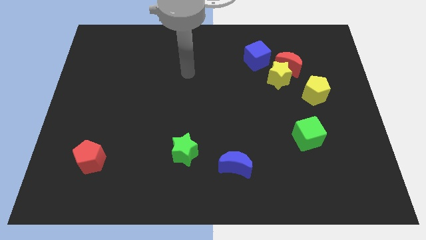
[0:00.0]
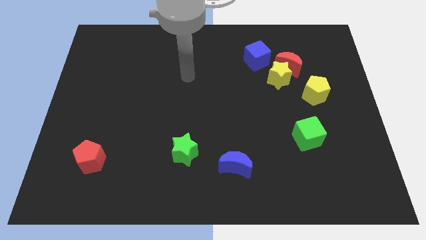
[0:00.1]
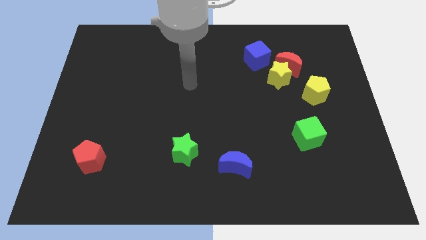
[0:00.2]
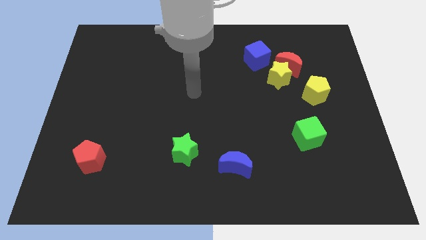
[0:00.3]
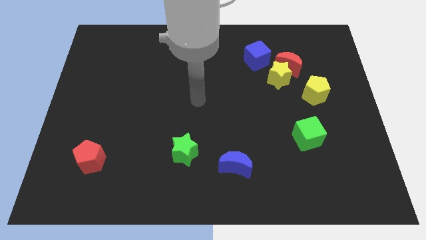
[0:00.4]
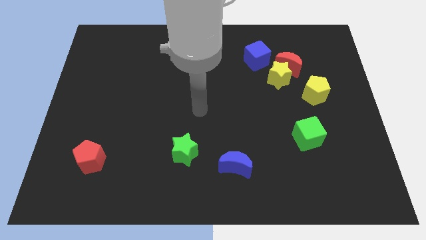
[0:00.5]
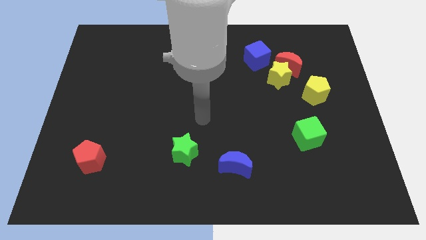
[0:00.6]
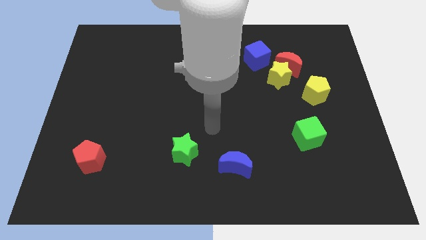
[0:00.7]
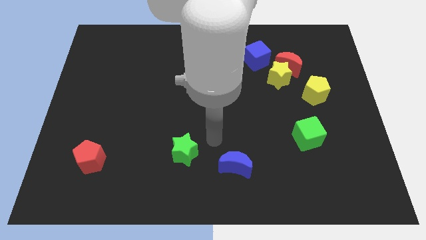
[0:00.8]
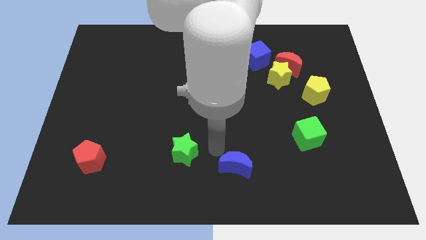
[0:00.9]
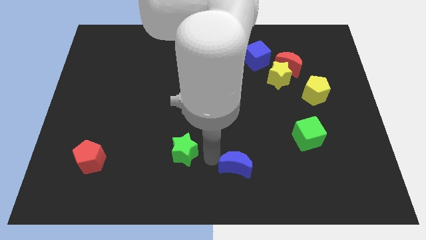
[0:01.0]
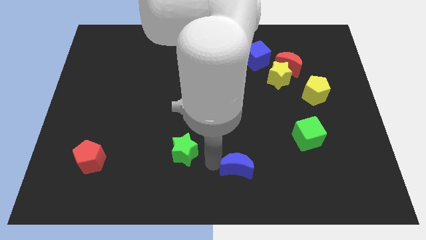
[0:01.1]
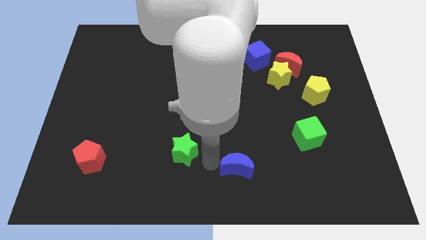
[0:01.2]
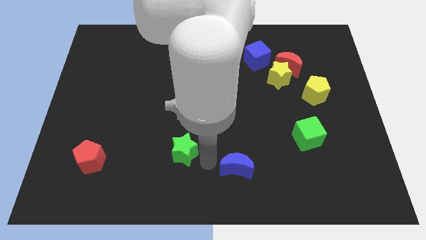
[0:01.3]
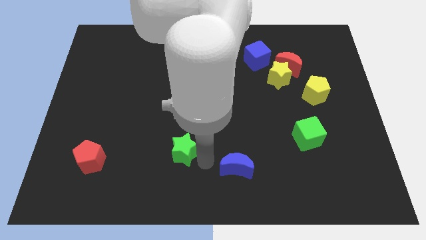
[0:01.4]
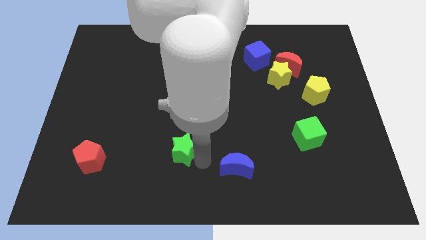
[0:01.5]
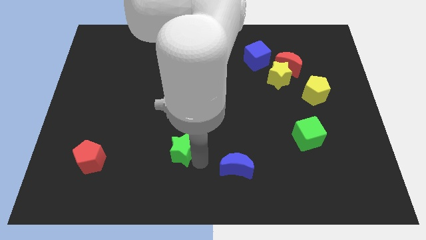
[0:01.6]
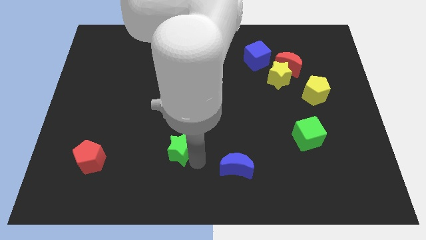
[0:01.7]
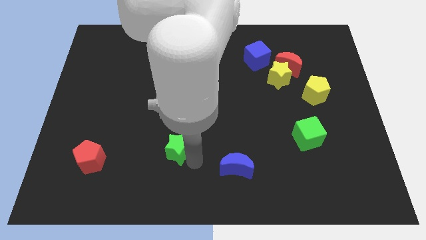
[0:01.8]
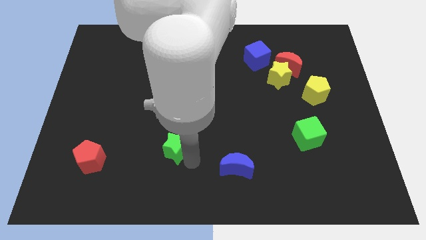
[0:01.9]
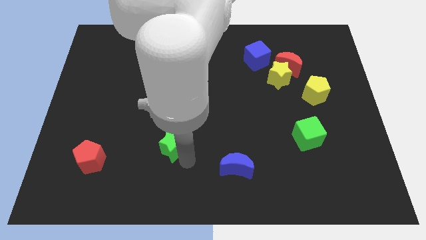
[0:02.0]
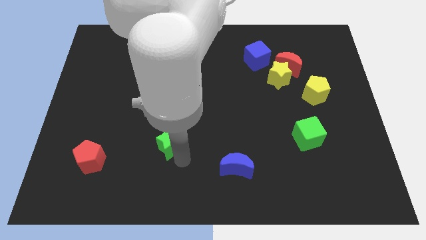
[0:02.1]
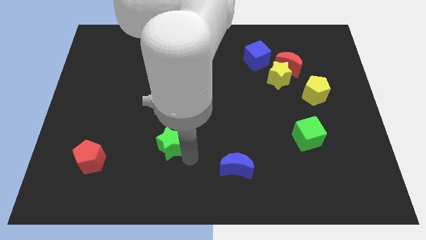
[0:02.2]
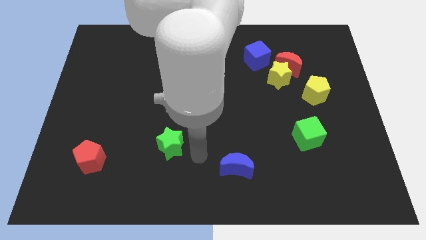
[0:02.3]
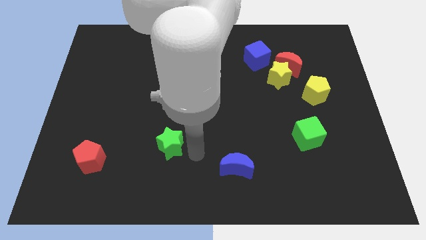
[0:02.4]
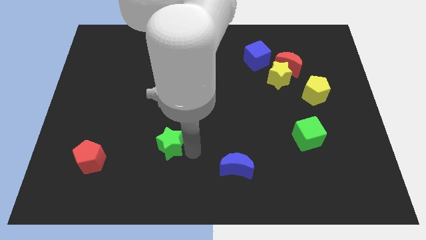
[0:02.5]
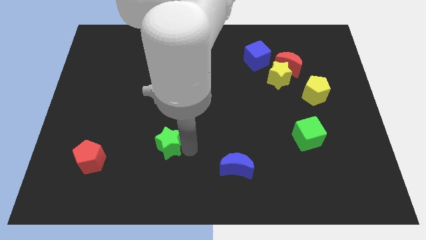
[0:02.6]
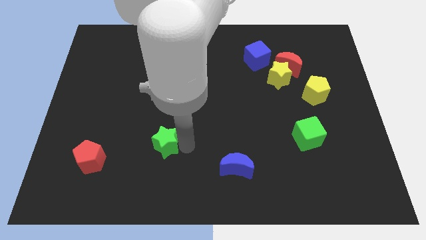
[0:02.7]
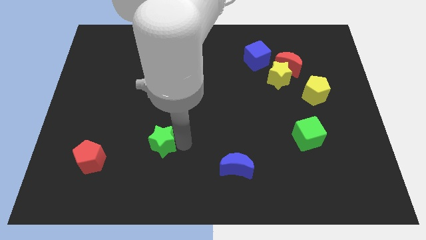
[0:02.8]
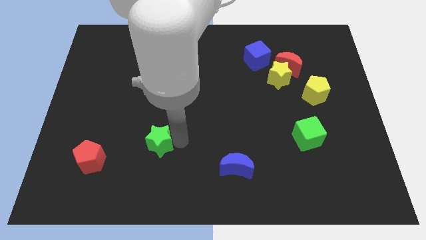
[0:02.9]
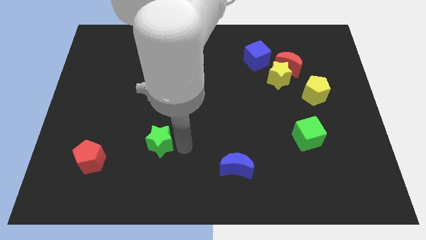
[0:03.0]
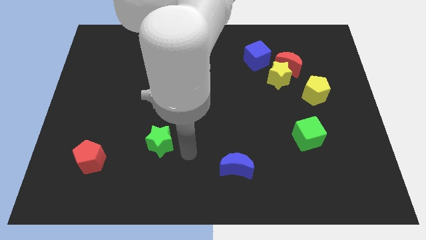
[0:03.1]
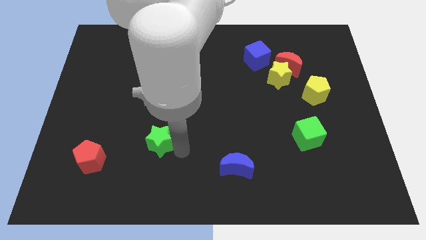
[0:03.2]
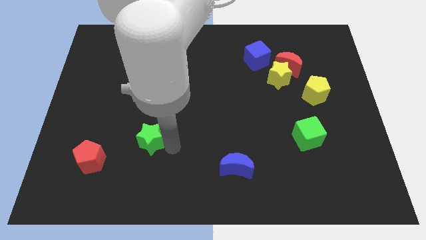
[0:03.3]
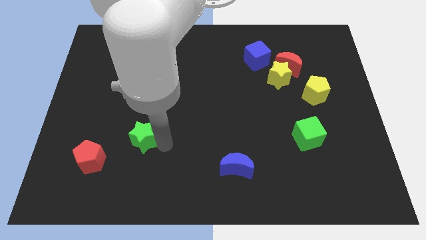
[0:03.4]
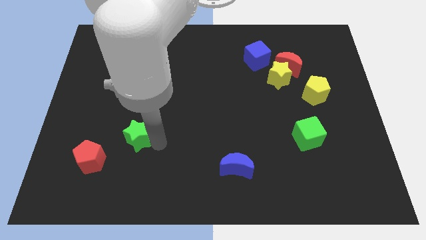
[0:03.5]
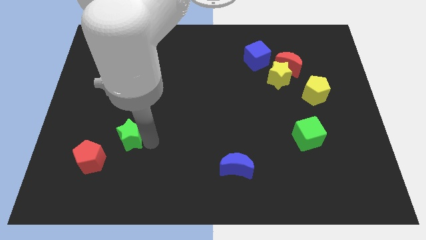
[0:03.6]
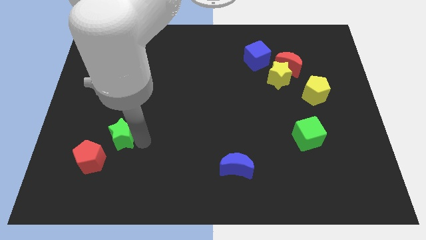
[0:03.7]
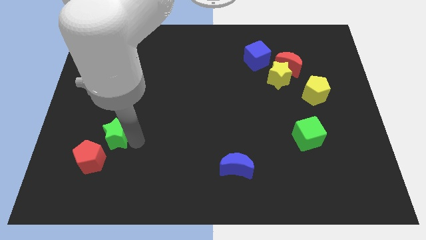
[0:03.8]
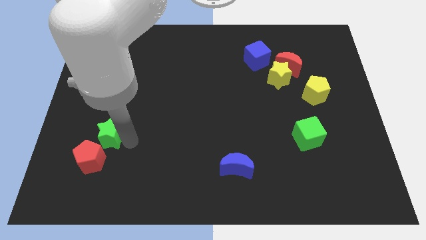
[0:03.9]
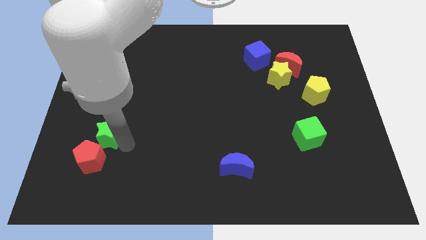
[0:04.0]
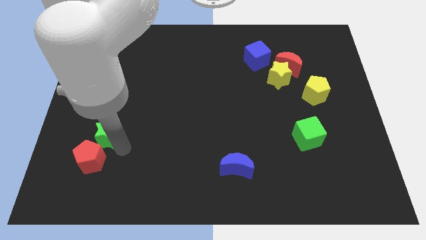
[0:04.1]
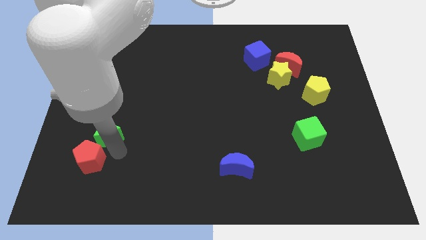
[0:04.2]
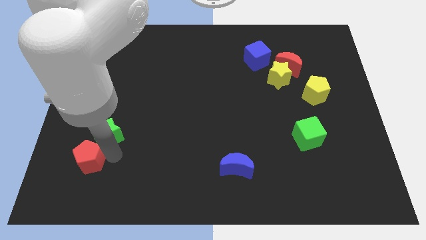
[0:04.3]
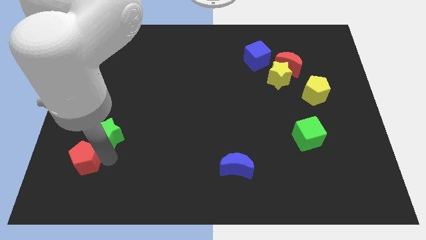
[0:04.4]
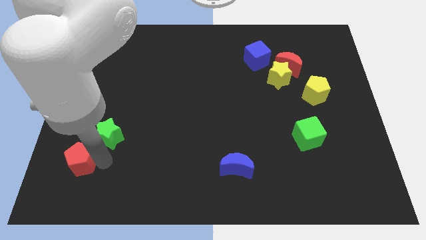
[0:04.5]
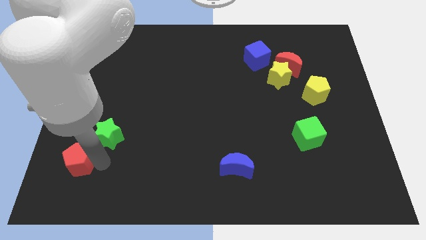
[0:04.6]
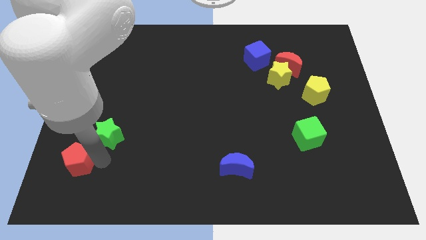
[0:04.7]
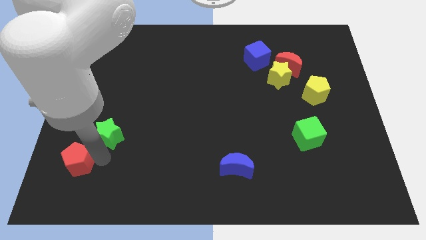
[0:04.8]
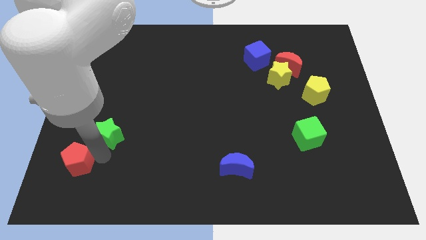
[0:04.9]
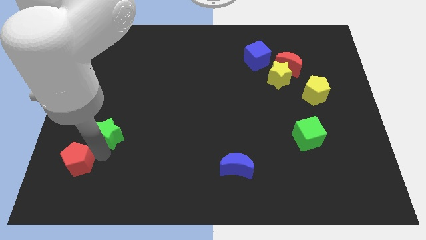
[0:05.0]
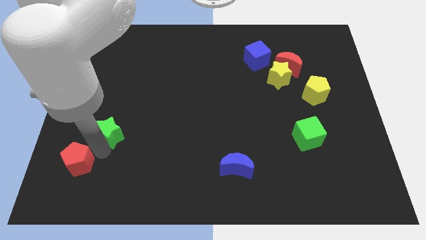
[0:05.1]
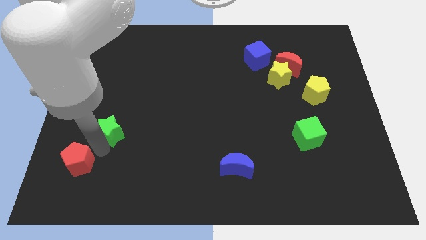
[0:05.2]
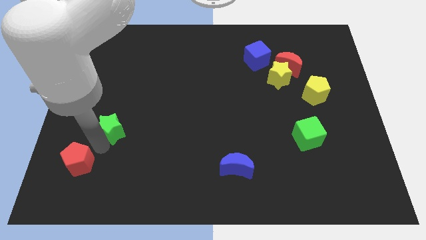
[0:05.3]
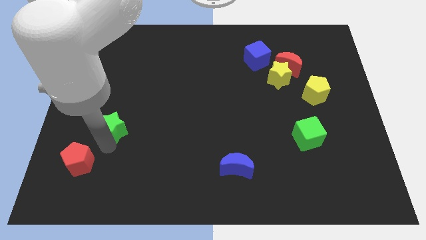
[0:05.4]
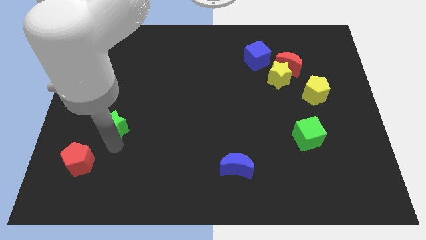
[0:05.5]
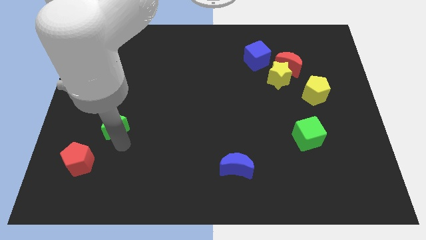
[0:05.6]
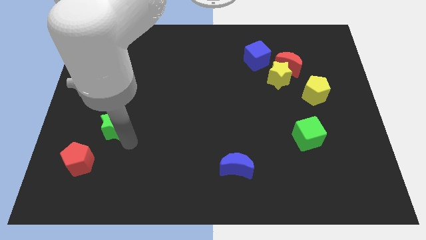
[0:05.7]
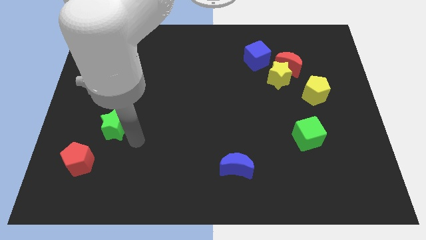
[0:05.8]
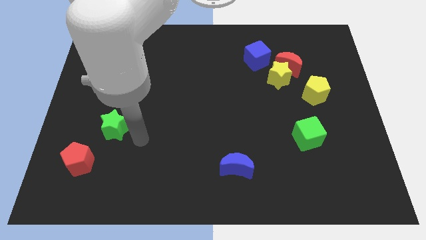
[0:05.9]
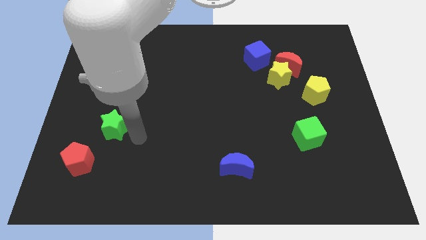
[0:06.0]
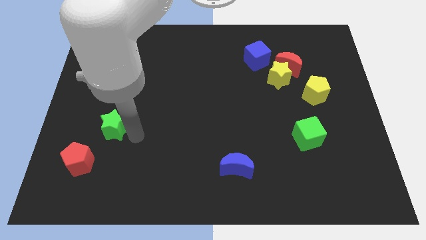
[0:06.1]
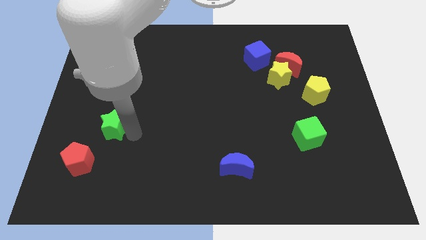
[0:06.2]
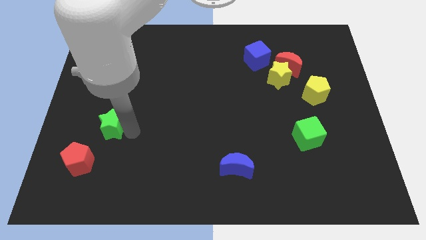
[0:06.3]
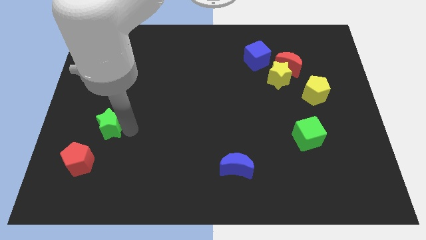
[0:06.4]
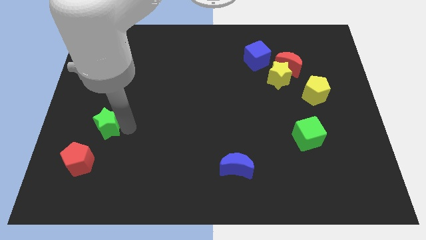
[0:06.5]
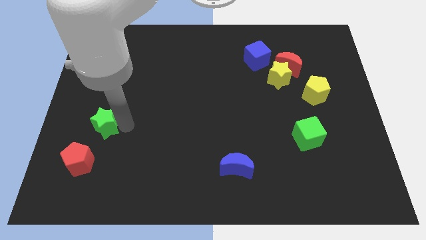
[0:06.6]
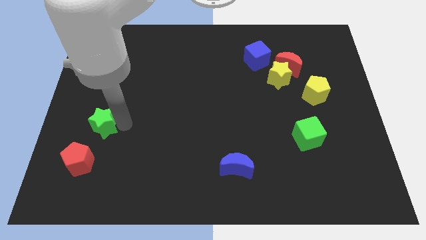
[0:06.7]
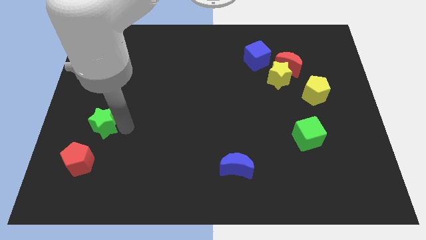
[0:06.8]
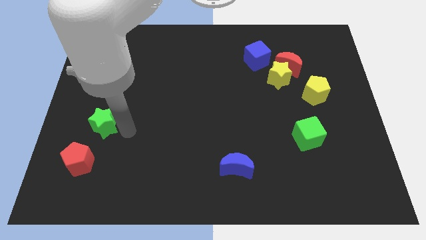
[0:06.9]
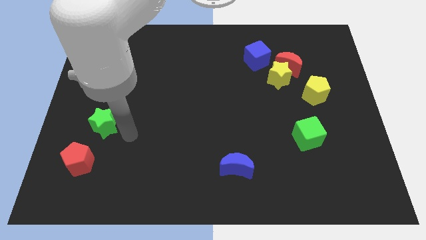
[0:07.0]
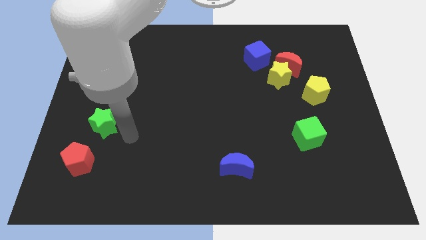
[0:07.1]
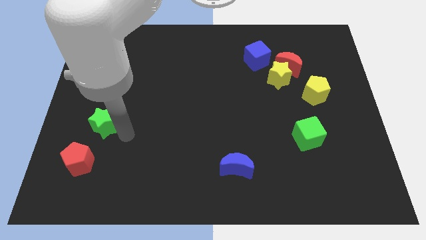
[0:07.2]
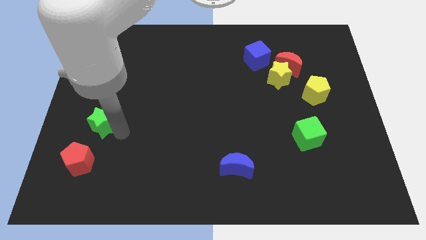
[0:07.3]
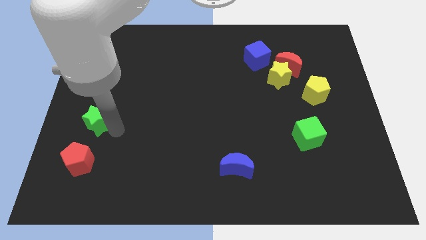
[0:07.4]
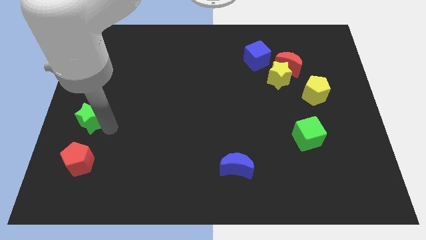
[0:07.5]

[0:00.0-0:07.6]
slide the green star to the center left
